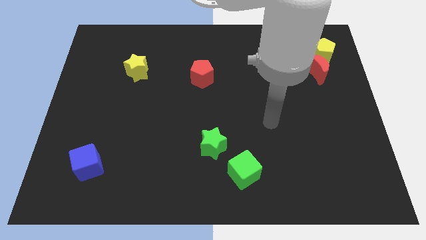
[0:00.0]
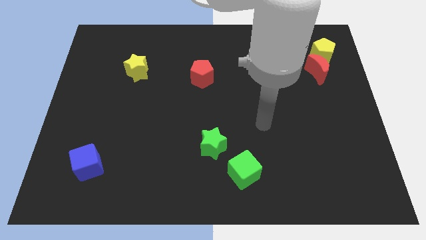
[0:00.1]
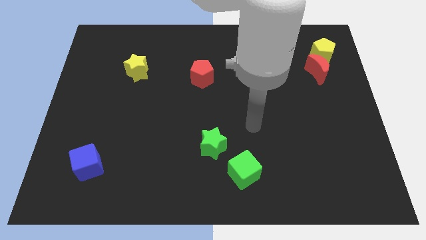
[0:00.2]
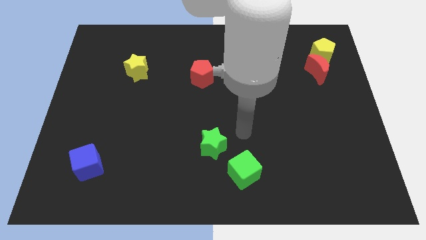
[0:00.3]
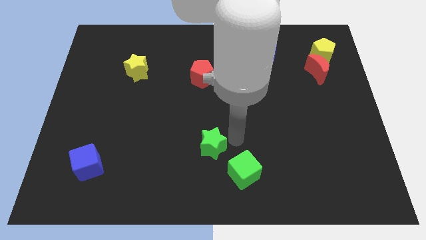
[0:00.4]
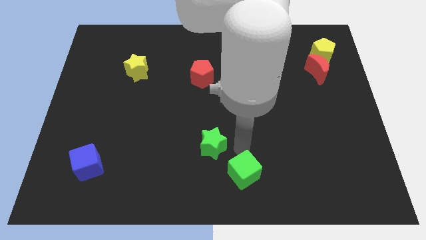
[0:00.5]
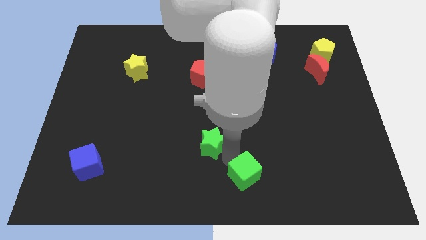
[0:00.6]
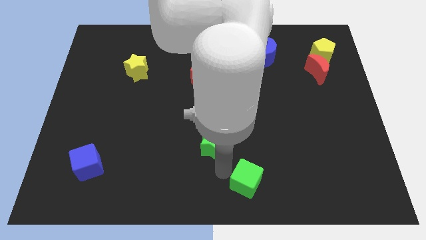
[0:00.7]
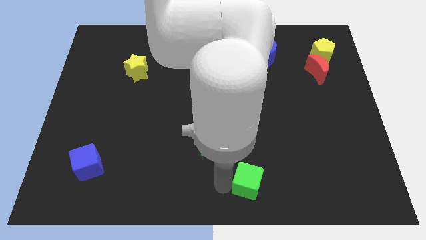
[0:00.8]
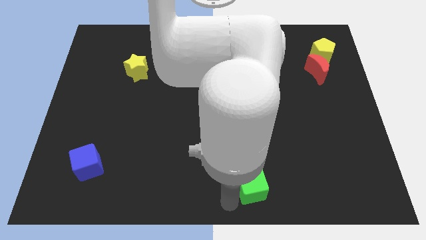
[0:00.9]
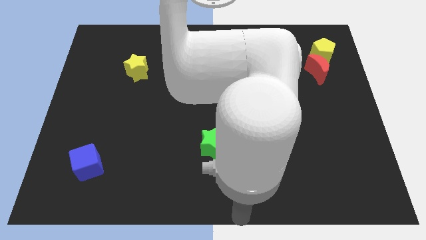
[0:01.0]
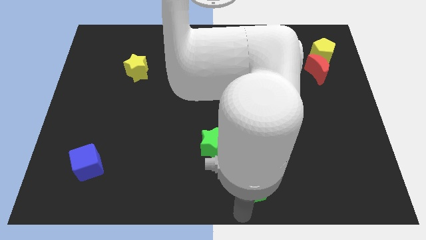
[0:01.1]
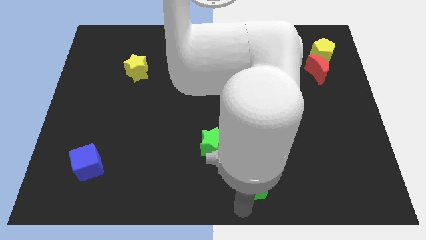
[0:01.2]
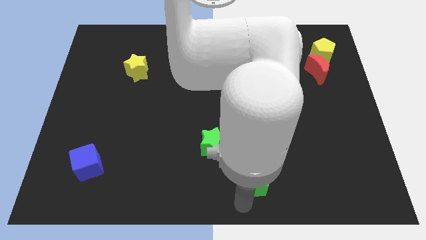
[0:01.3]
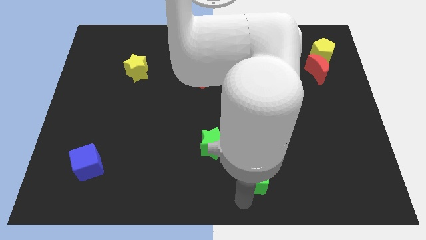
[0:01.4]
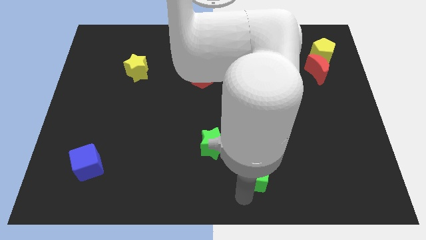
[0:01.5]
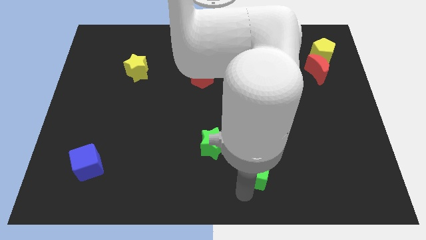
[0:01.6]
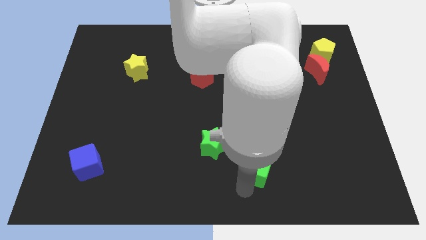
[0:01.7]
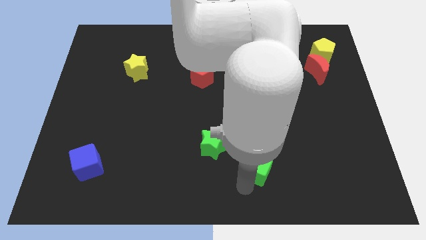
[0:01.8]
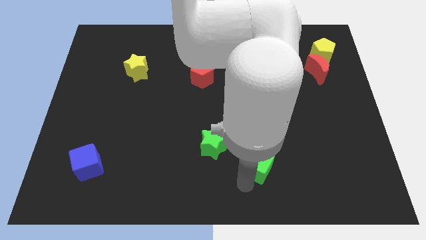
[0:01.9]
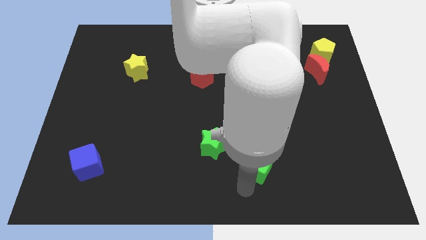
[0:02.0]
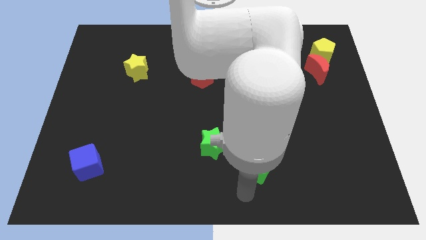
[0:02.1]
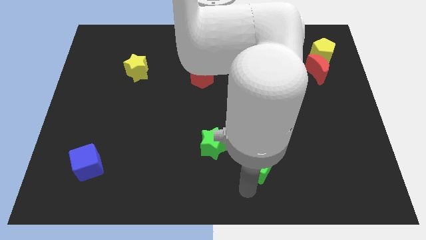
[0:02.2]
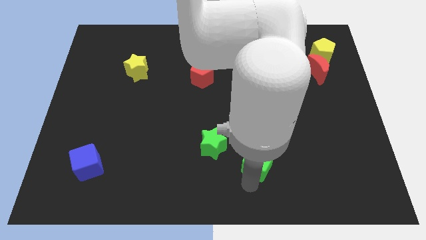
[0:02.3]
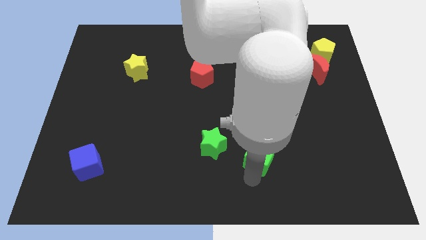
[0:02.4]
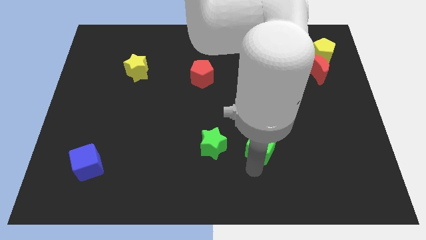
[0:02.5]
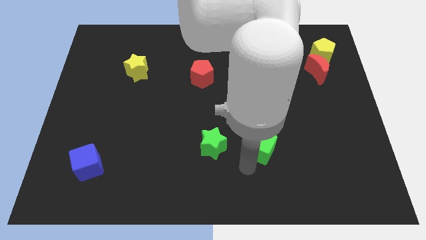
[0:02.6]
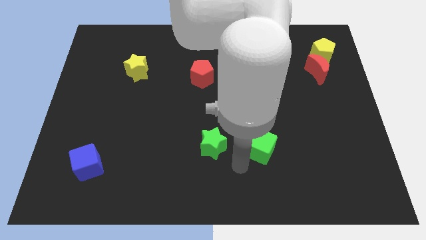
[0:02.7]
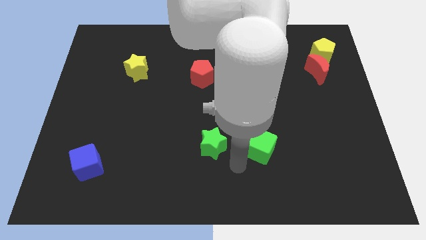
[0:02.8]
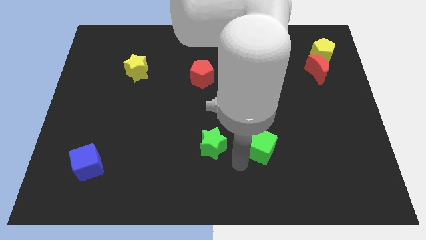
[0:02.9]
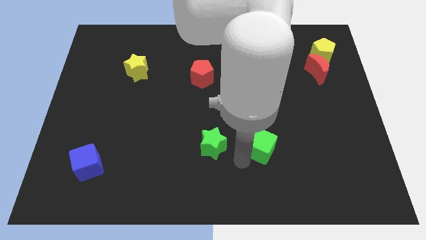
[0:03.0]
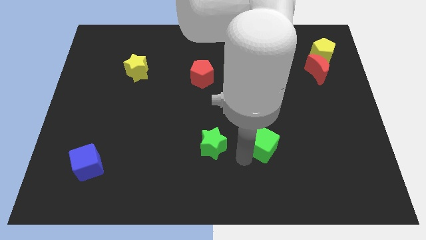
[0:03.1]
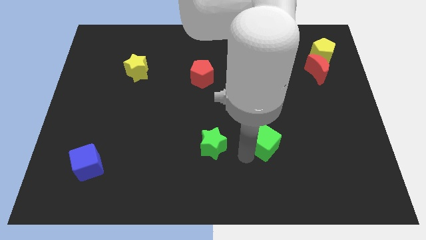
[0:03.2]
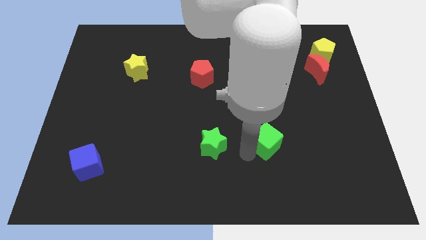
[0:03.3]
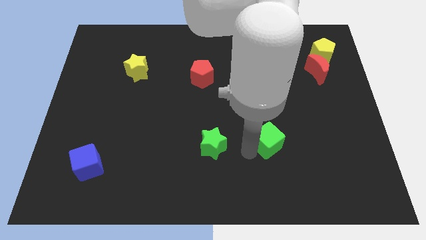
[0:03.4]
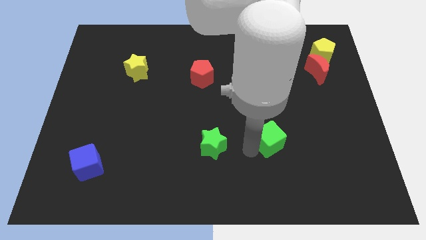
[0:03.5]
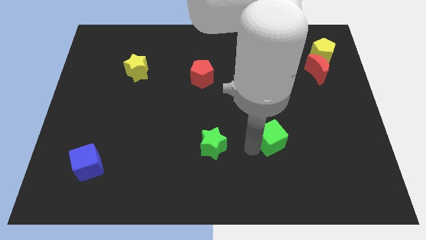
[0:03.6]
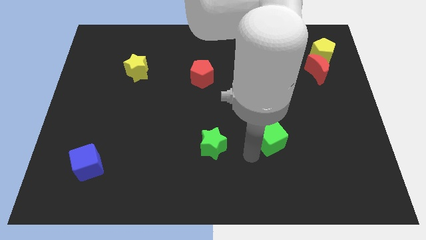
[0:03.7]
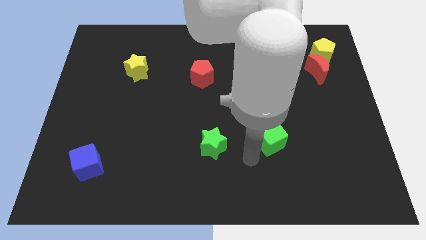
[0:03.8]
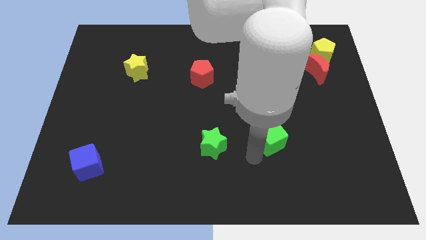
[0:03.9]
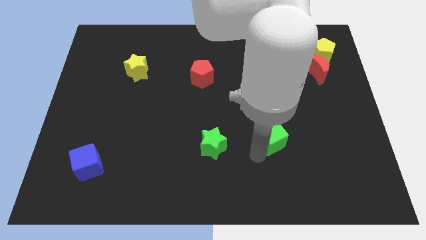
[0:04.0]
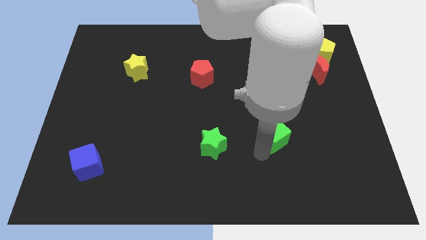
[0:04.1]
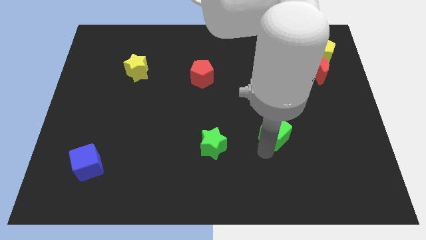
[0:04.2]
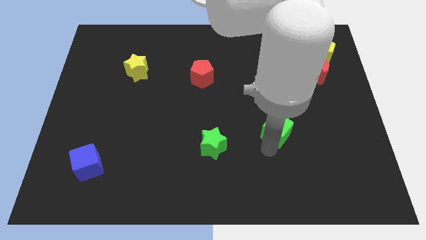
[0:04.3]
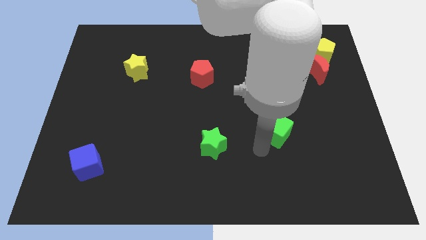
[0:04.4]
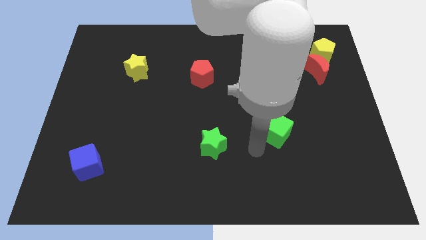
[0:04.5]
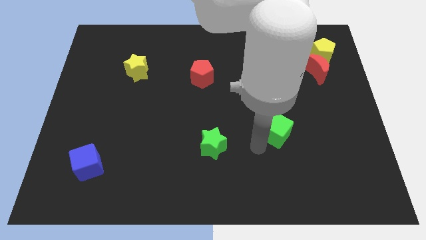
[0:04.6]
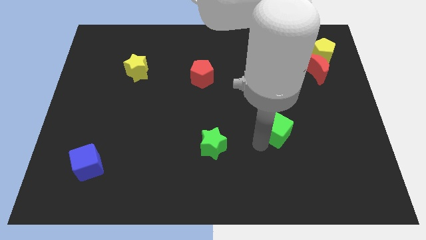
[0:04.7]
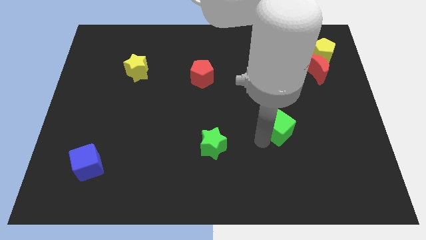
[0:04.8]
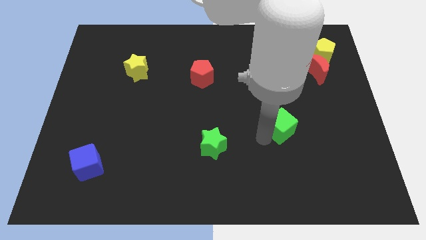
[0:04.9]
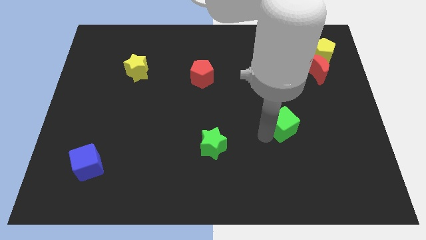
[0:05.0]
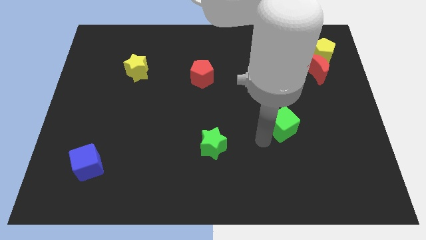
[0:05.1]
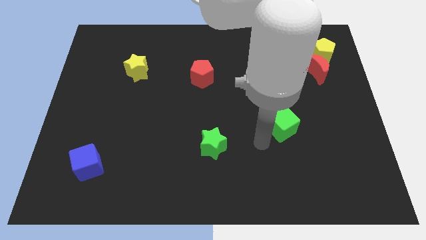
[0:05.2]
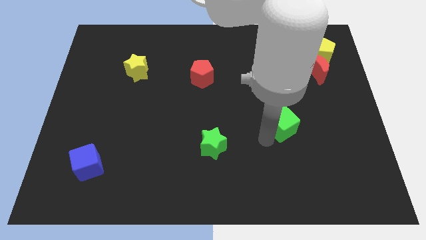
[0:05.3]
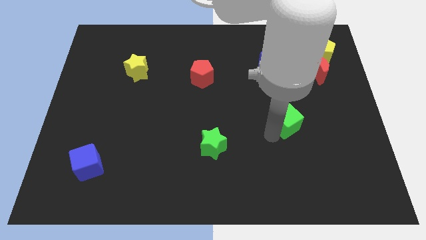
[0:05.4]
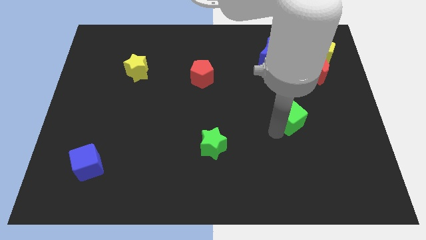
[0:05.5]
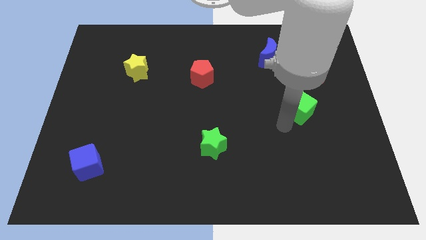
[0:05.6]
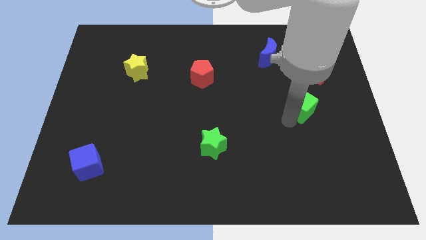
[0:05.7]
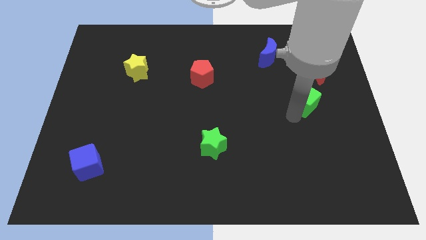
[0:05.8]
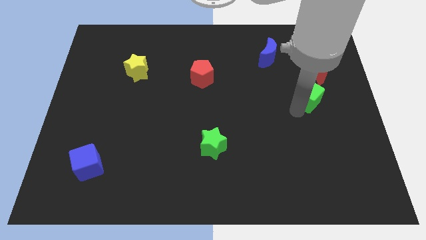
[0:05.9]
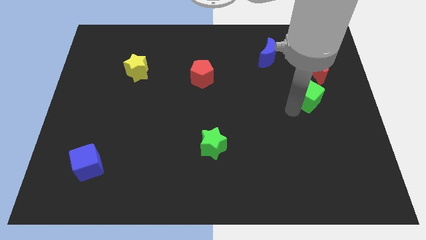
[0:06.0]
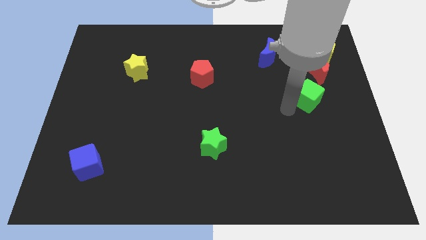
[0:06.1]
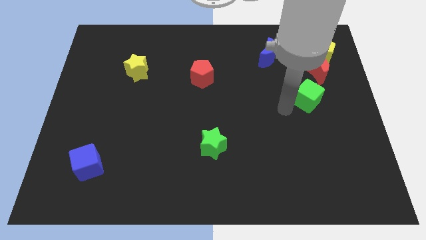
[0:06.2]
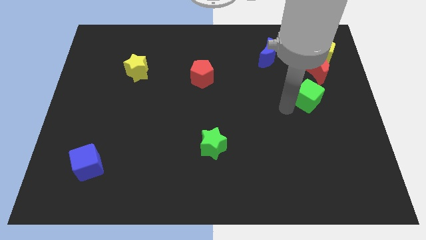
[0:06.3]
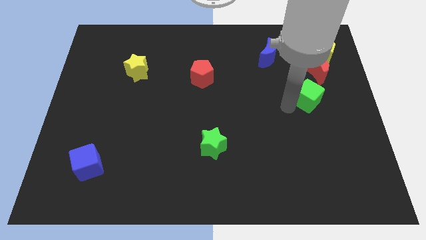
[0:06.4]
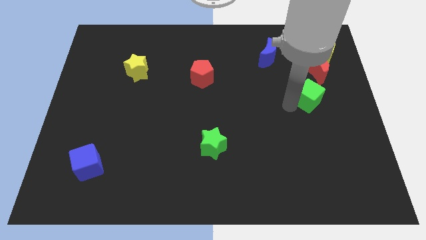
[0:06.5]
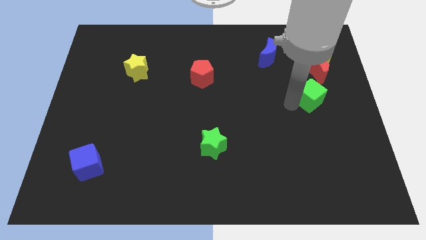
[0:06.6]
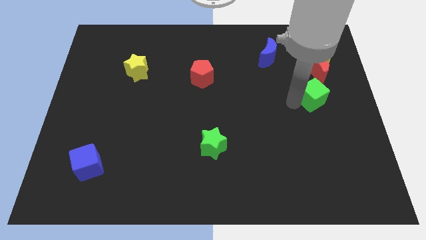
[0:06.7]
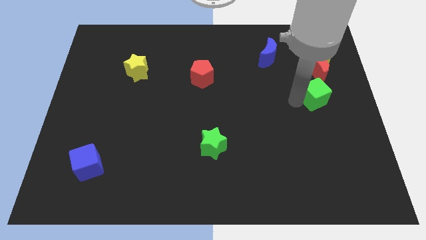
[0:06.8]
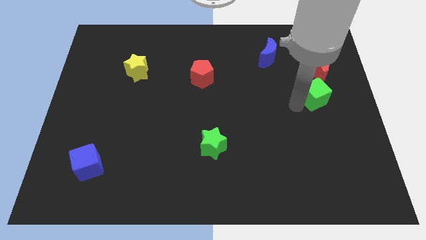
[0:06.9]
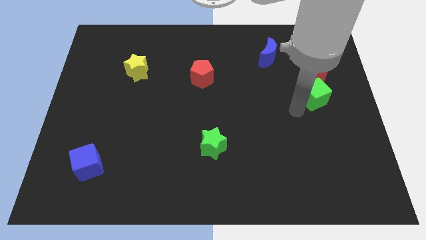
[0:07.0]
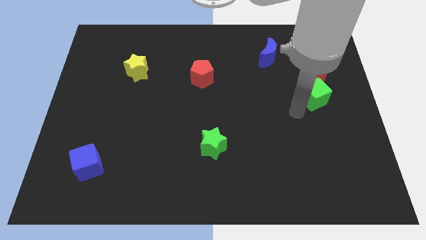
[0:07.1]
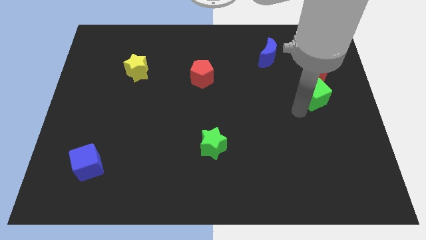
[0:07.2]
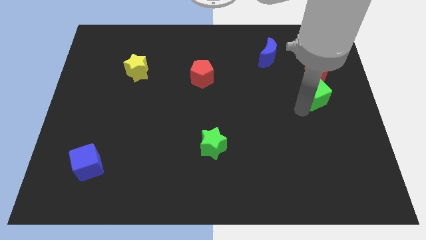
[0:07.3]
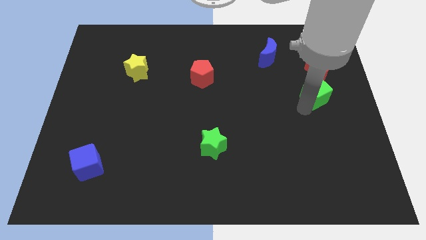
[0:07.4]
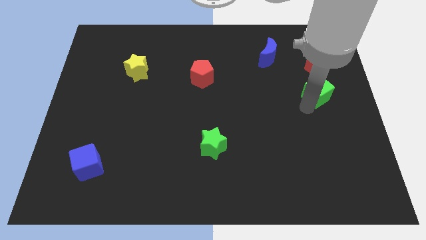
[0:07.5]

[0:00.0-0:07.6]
put the green cube to the bottom side of the yellow pentagon
